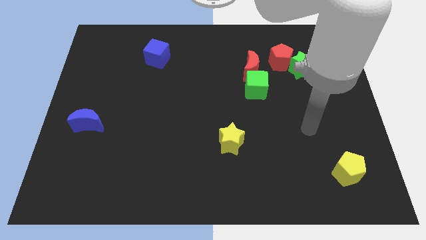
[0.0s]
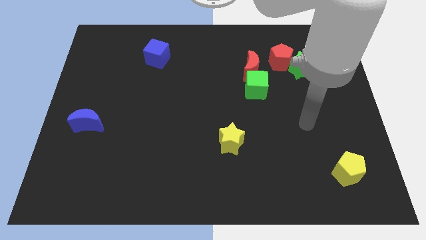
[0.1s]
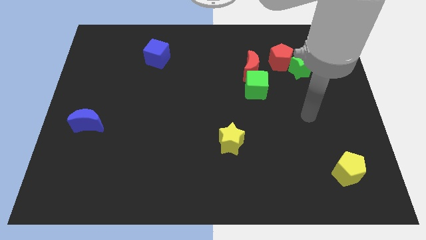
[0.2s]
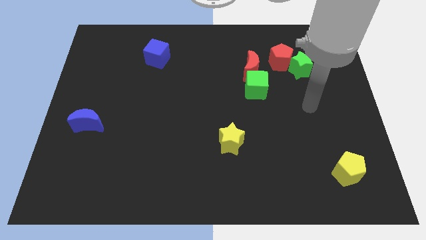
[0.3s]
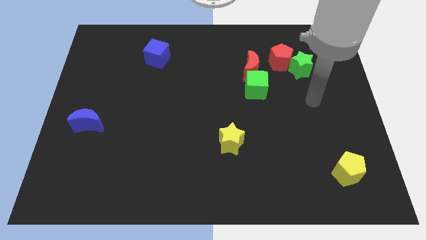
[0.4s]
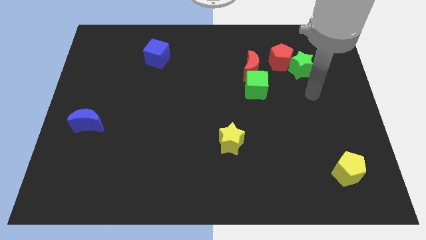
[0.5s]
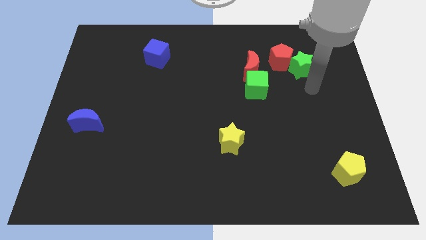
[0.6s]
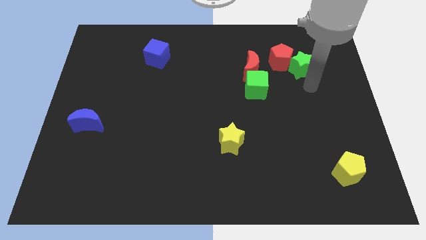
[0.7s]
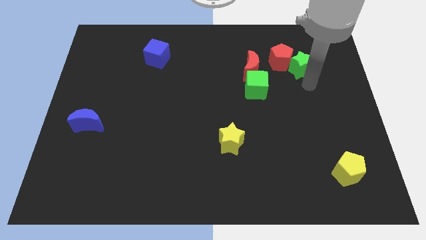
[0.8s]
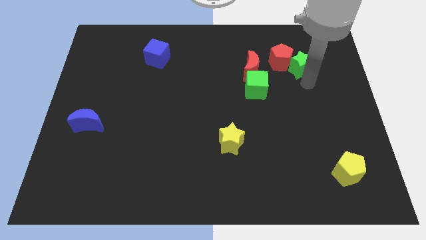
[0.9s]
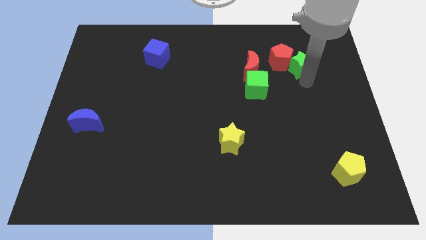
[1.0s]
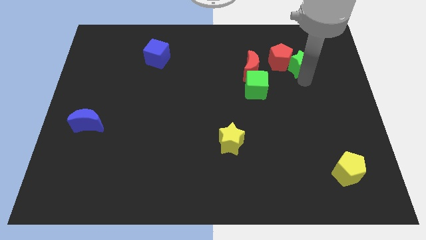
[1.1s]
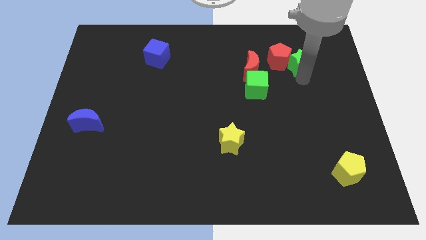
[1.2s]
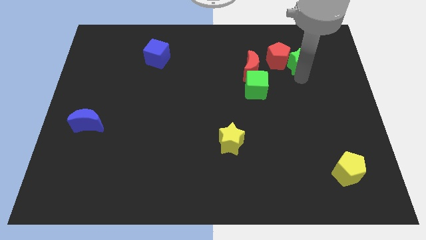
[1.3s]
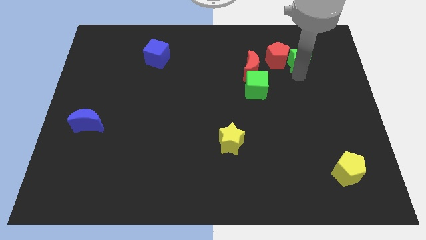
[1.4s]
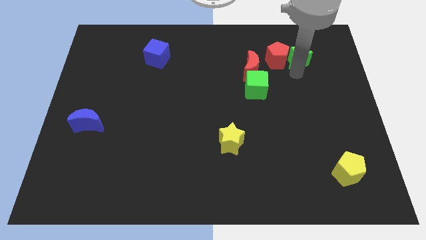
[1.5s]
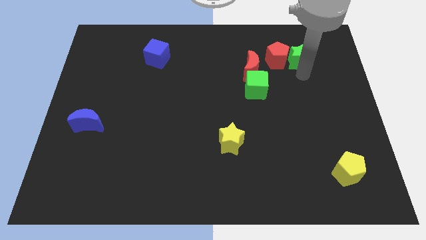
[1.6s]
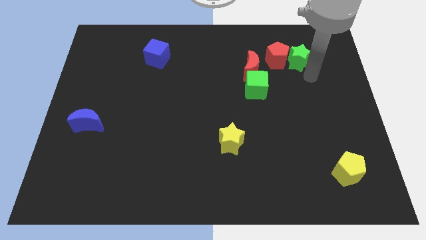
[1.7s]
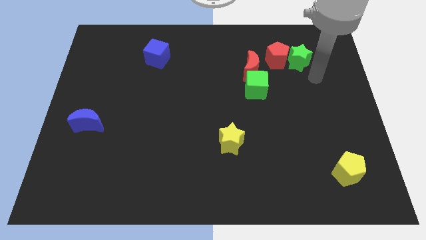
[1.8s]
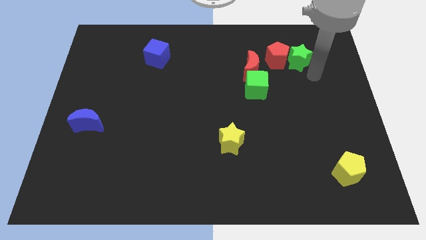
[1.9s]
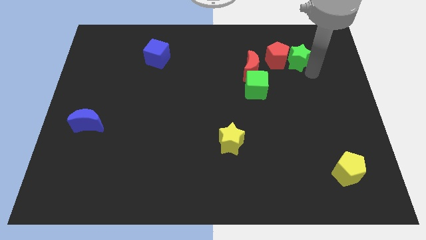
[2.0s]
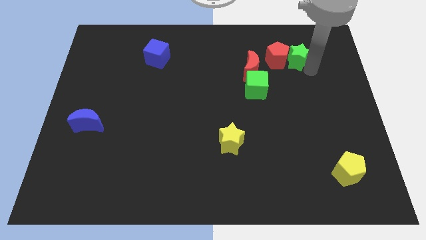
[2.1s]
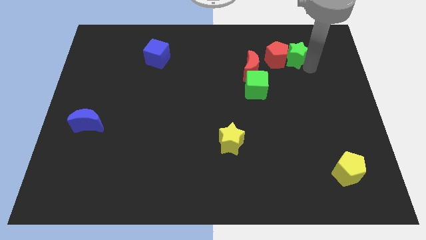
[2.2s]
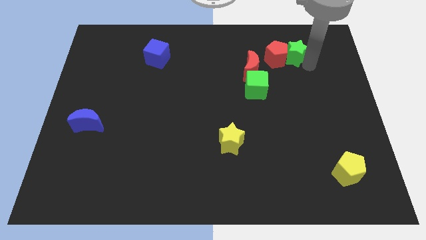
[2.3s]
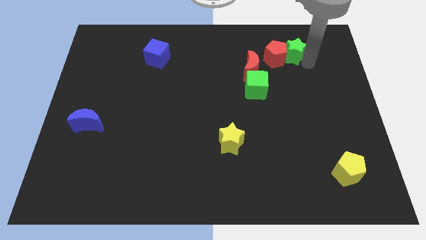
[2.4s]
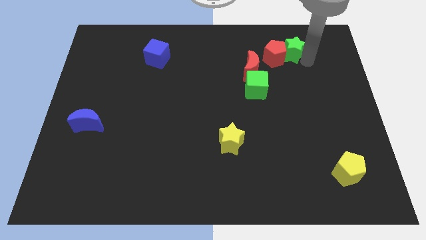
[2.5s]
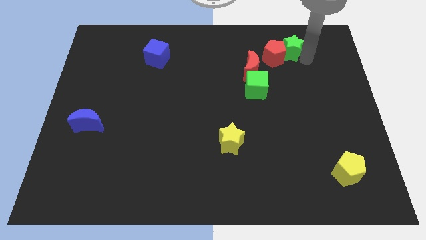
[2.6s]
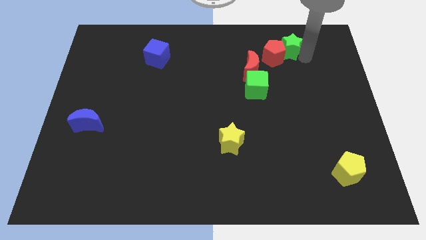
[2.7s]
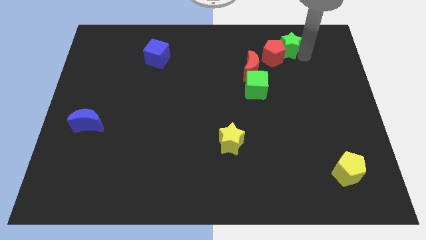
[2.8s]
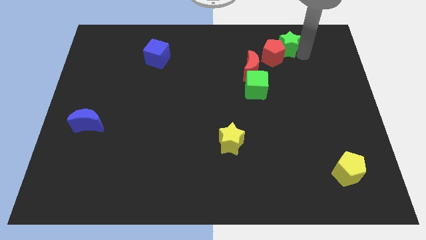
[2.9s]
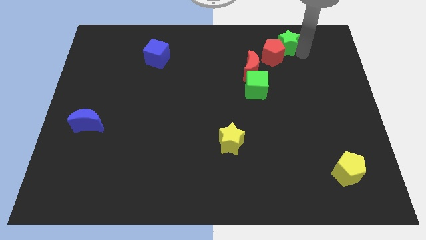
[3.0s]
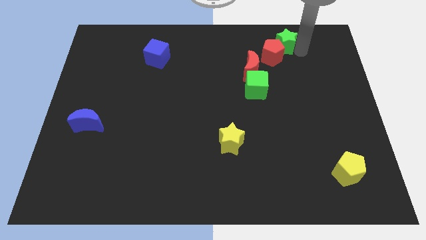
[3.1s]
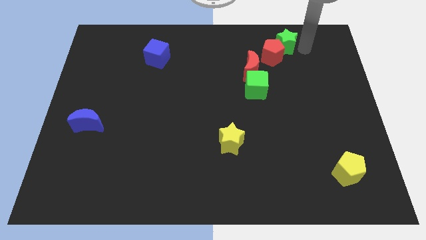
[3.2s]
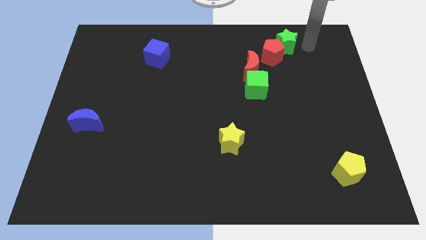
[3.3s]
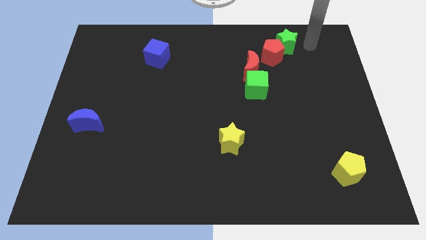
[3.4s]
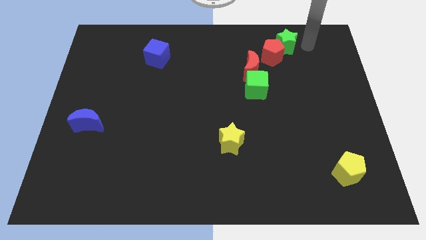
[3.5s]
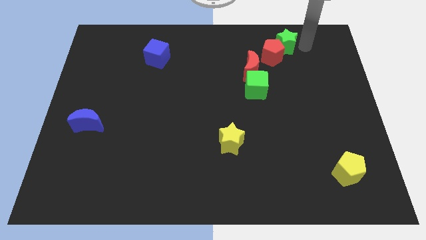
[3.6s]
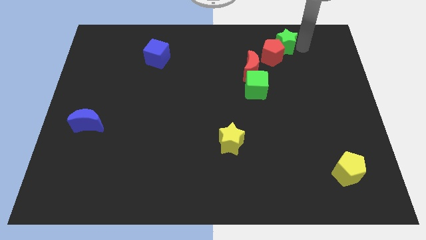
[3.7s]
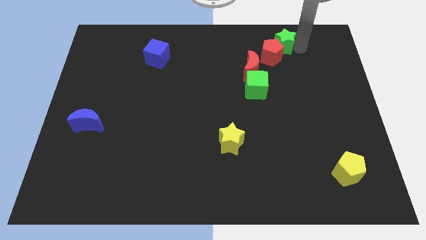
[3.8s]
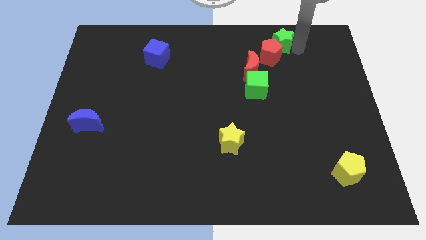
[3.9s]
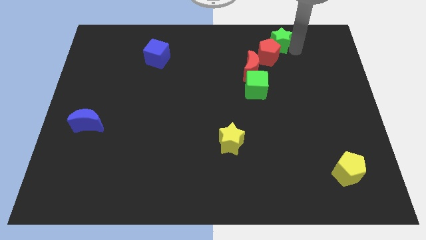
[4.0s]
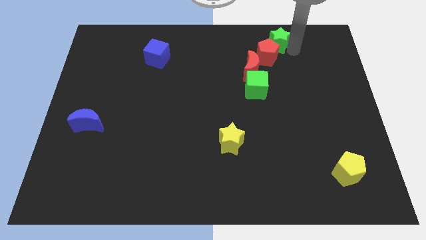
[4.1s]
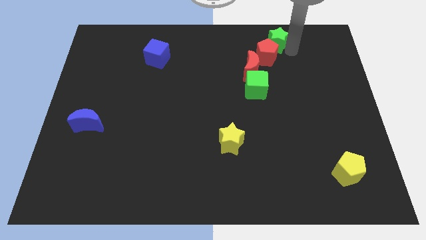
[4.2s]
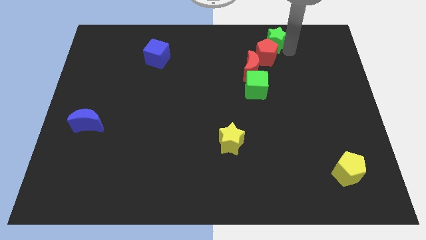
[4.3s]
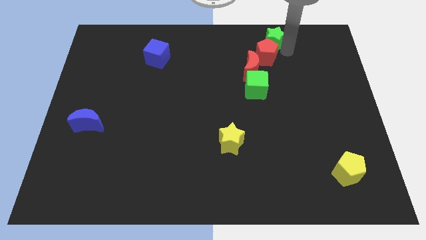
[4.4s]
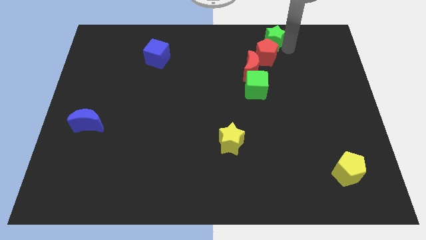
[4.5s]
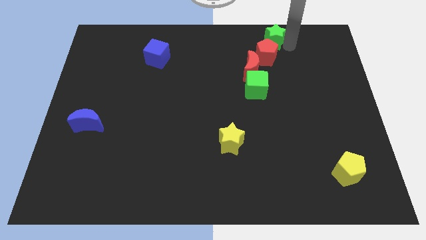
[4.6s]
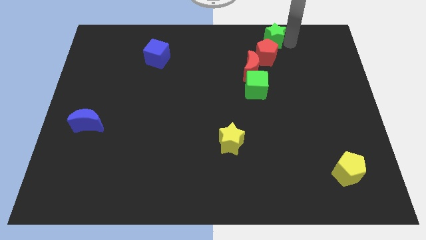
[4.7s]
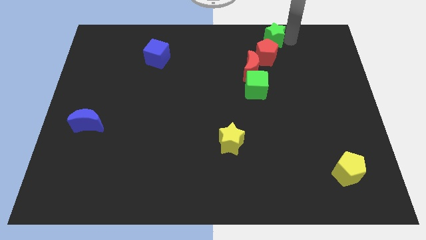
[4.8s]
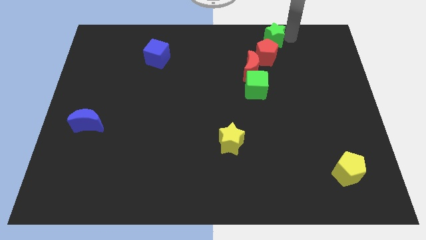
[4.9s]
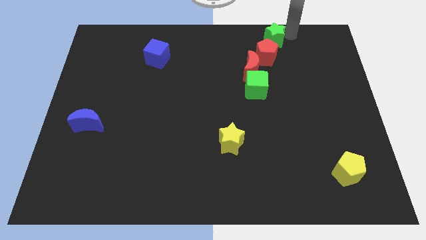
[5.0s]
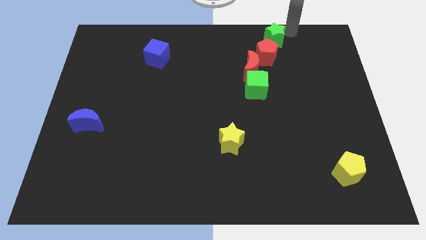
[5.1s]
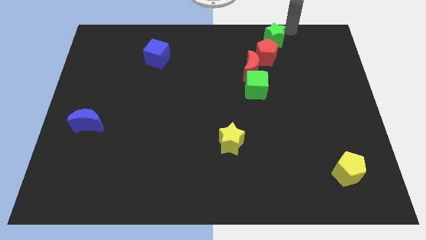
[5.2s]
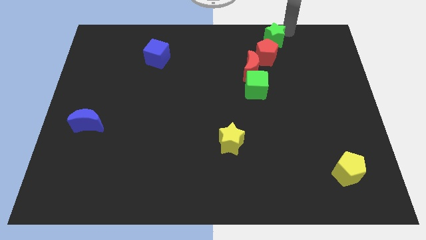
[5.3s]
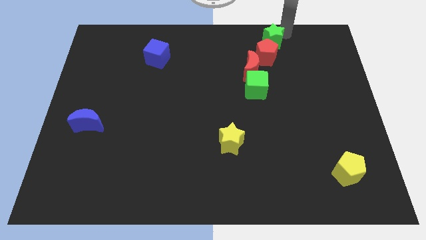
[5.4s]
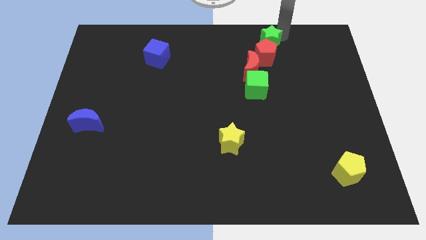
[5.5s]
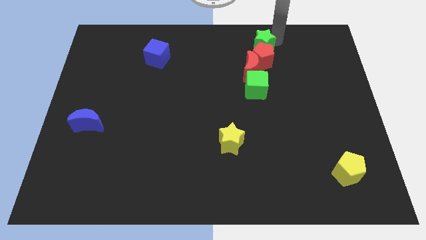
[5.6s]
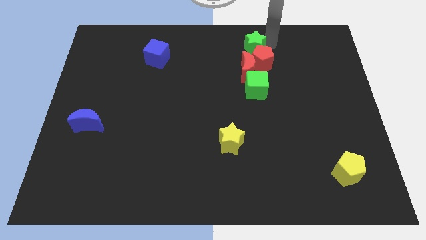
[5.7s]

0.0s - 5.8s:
slide the green star a little bit left

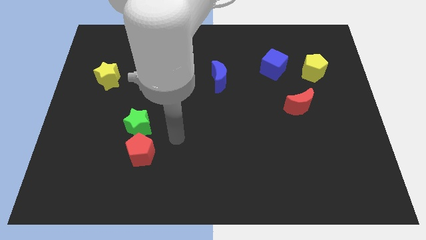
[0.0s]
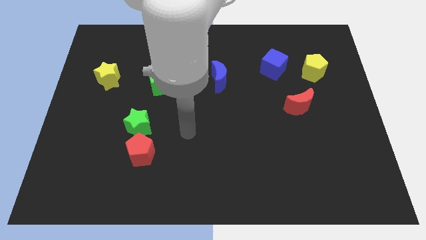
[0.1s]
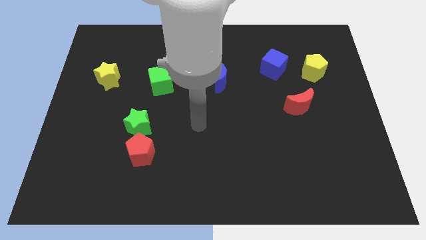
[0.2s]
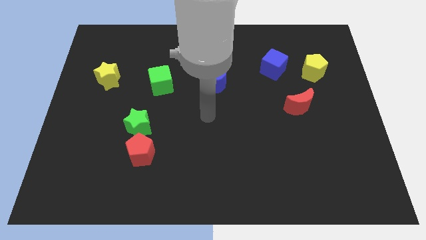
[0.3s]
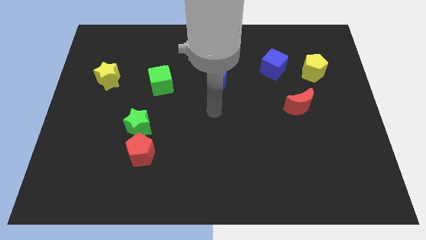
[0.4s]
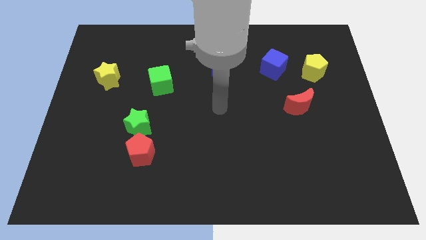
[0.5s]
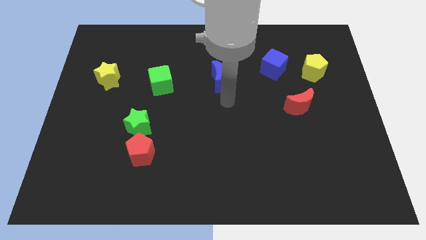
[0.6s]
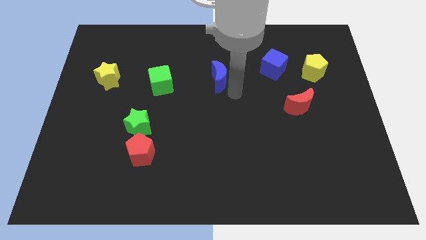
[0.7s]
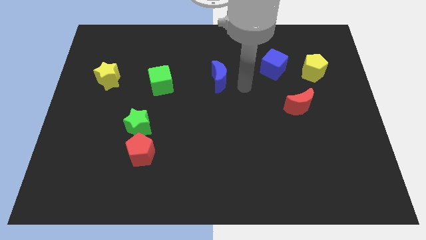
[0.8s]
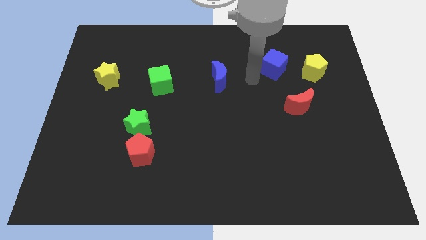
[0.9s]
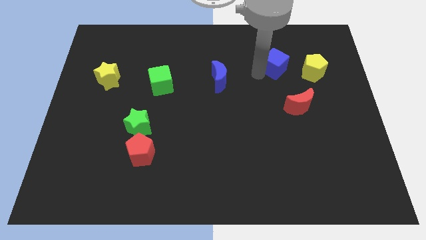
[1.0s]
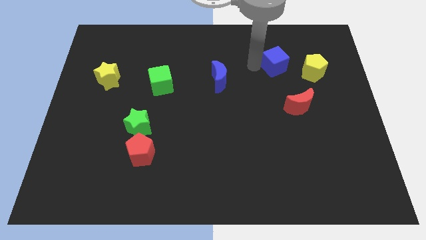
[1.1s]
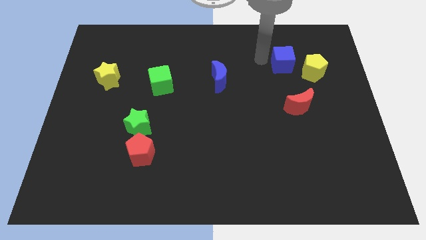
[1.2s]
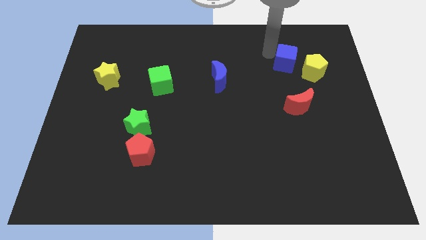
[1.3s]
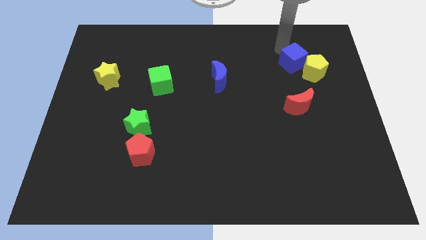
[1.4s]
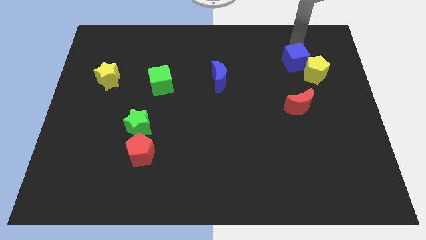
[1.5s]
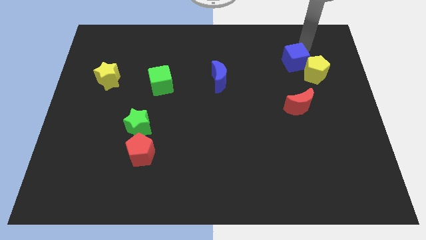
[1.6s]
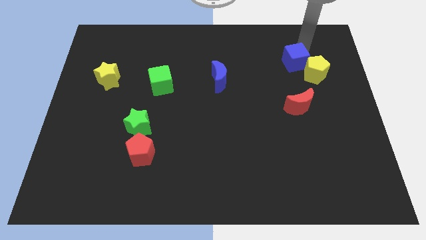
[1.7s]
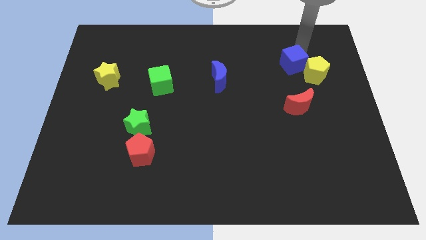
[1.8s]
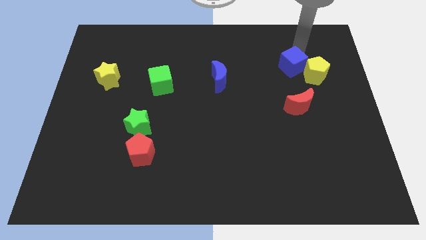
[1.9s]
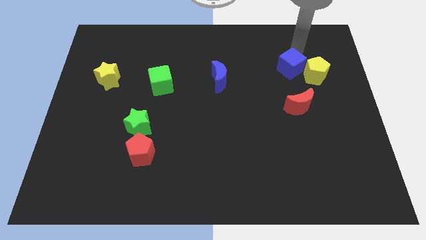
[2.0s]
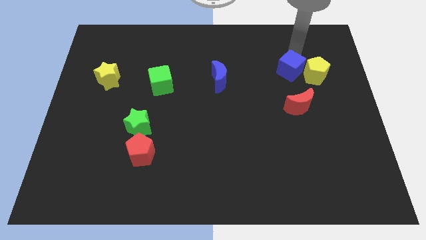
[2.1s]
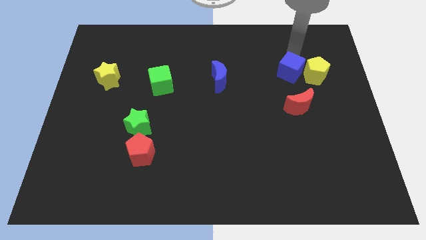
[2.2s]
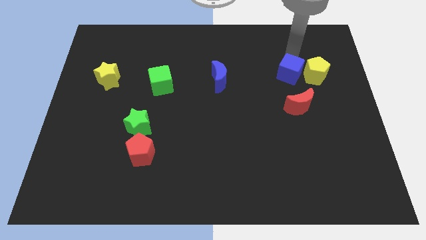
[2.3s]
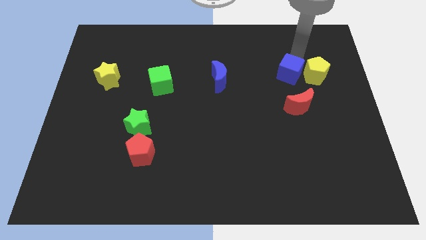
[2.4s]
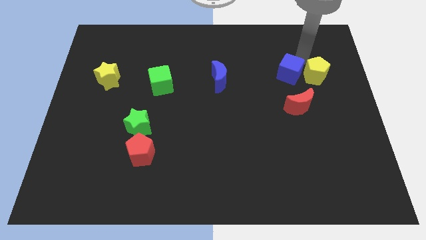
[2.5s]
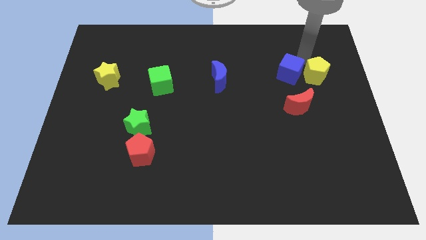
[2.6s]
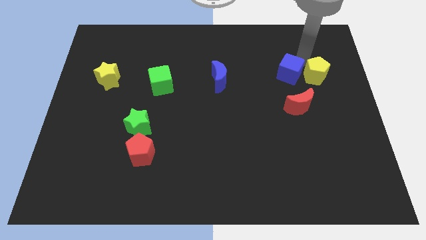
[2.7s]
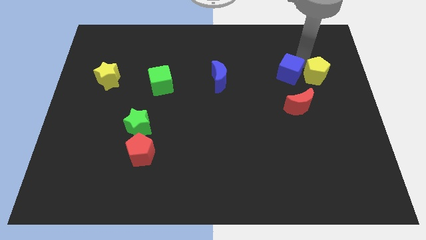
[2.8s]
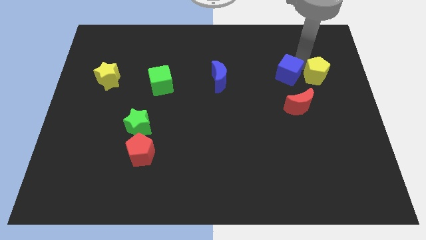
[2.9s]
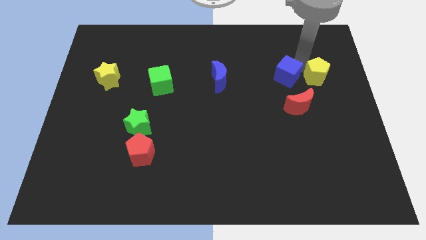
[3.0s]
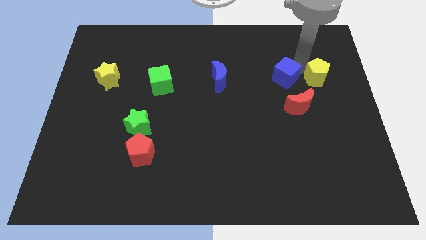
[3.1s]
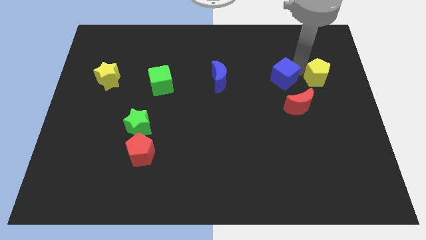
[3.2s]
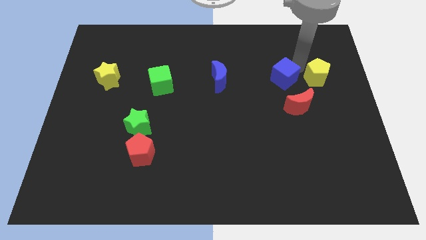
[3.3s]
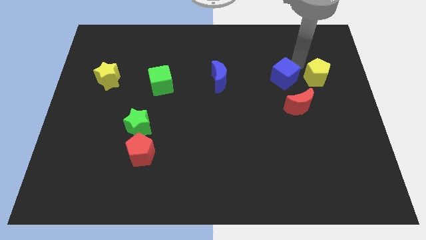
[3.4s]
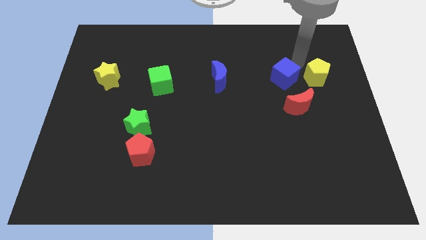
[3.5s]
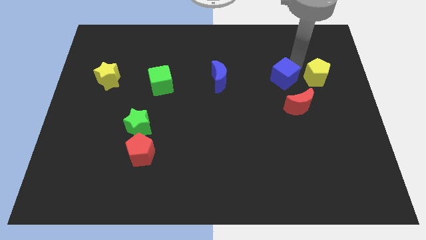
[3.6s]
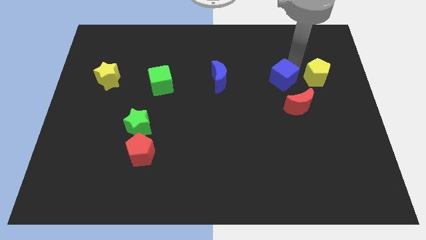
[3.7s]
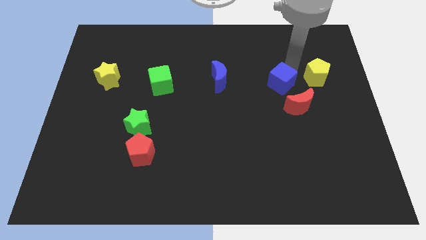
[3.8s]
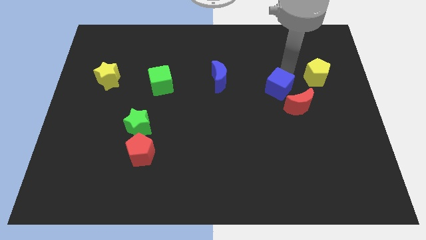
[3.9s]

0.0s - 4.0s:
move the blue cube downwards slightly
